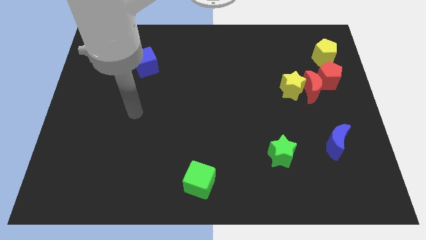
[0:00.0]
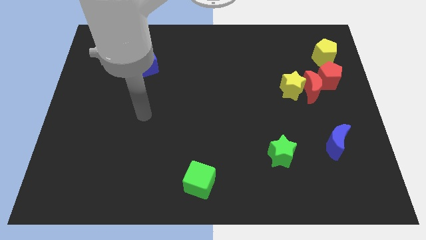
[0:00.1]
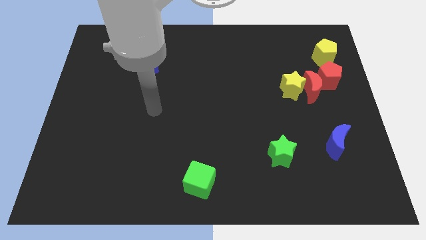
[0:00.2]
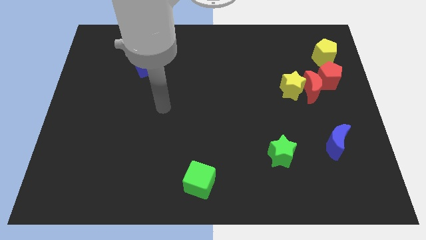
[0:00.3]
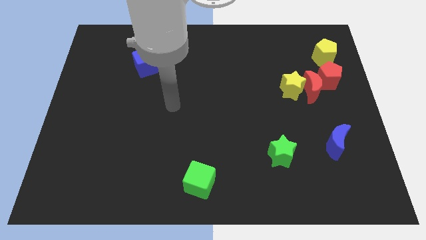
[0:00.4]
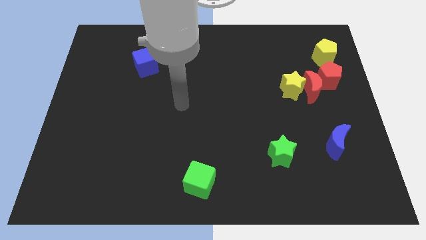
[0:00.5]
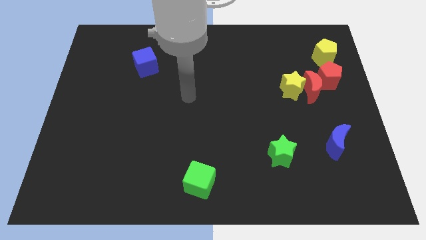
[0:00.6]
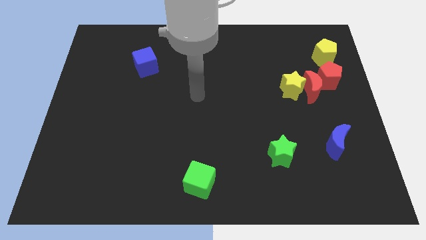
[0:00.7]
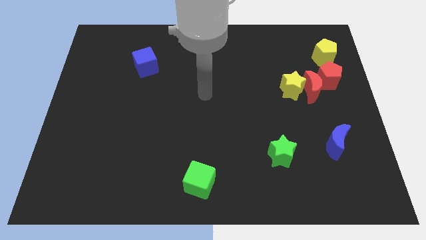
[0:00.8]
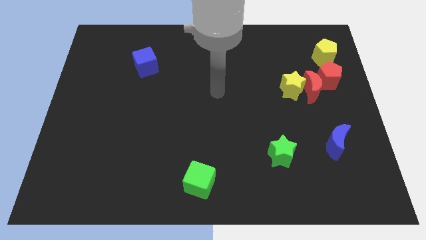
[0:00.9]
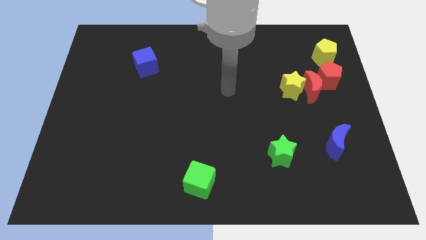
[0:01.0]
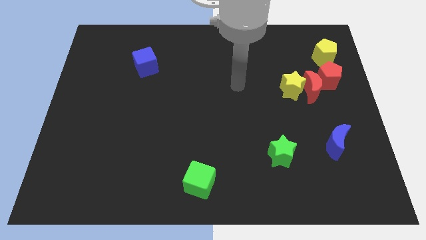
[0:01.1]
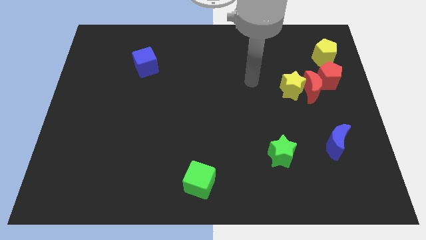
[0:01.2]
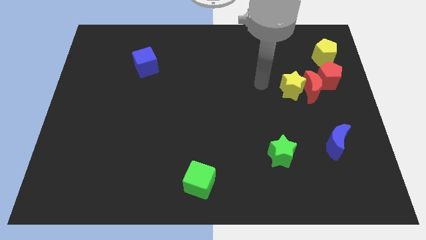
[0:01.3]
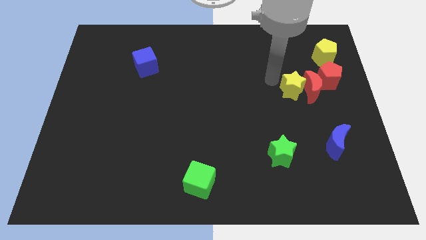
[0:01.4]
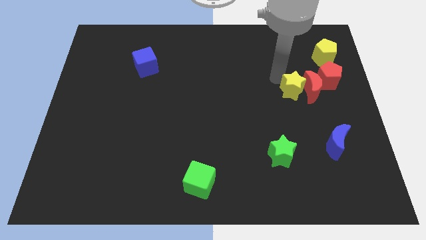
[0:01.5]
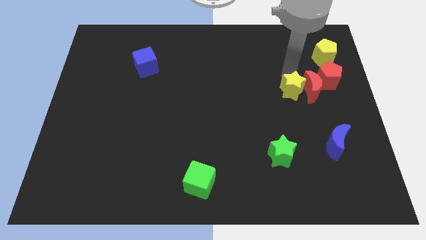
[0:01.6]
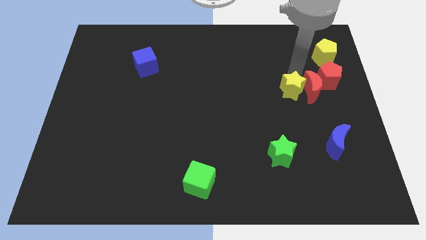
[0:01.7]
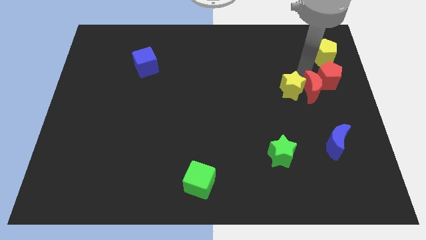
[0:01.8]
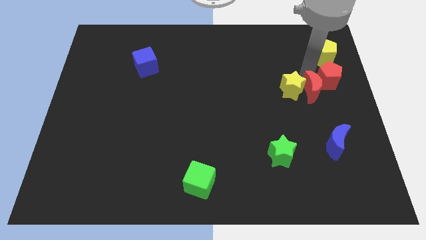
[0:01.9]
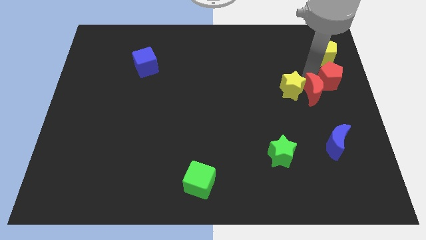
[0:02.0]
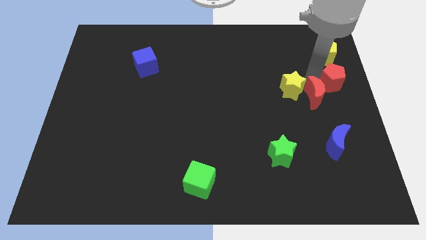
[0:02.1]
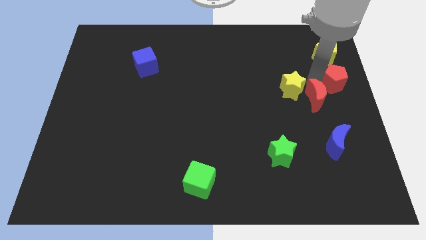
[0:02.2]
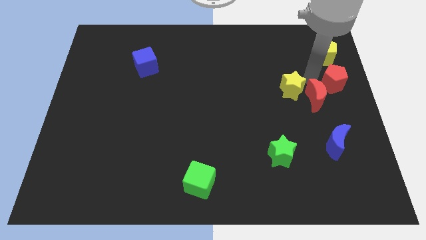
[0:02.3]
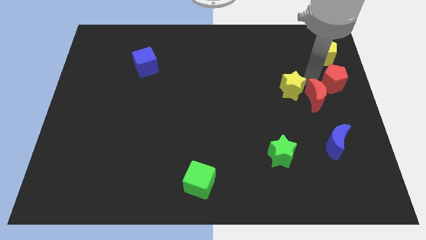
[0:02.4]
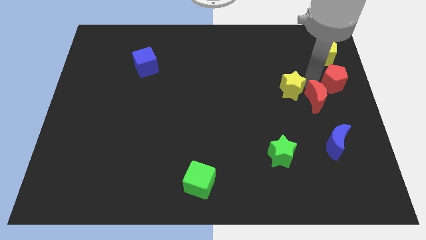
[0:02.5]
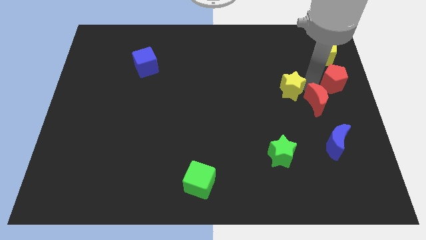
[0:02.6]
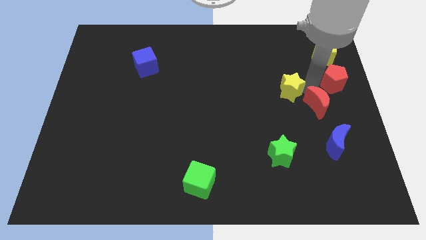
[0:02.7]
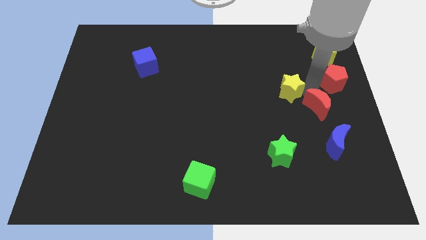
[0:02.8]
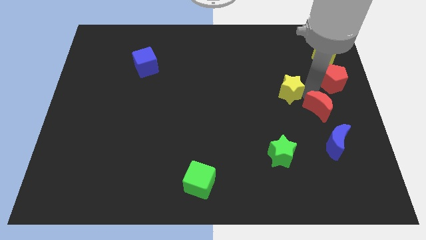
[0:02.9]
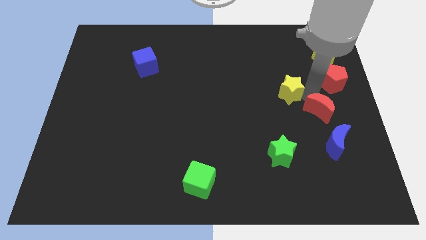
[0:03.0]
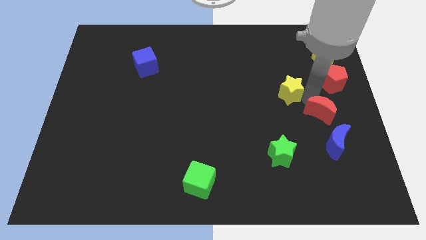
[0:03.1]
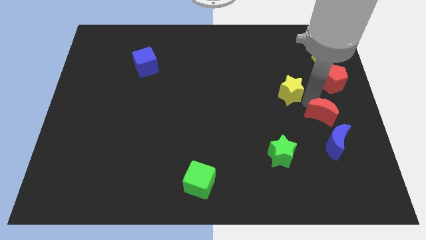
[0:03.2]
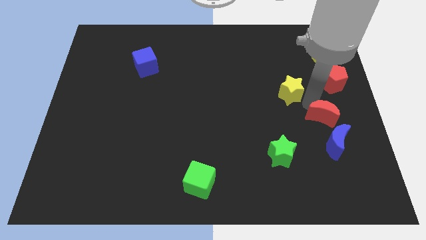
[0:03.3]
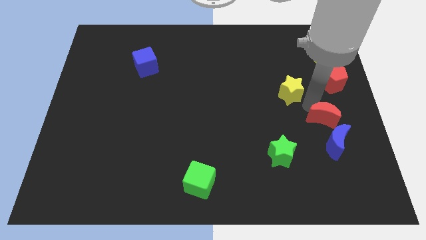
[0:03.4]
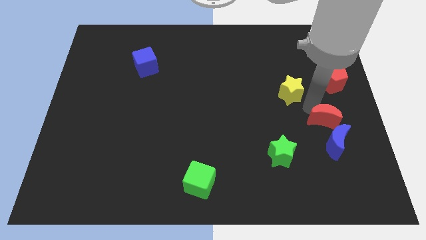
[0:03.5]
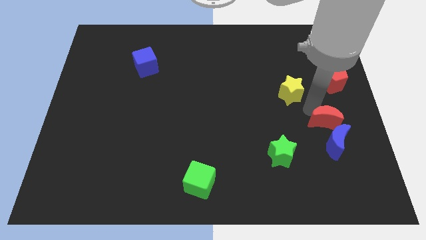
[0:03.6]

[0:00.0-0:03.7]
separate the red moon from the yellow star and red pentagon

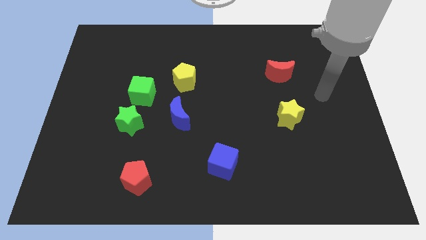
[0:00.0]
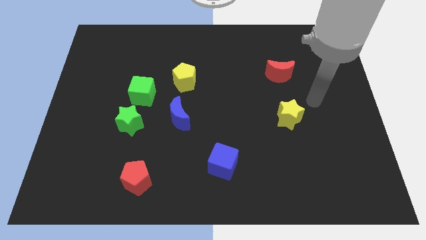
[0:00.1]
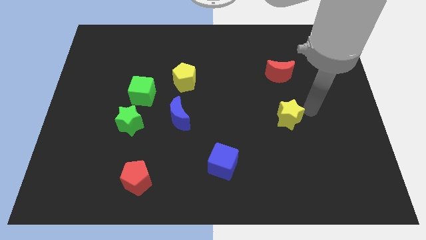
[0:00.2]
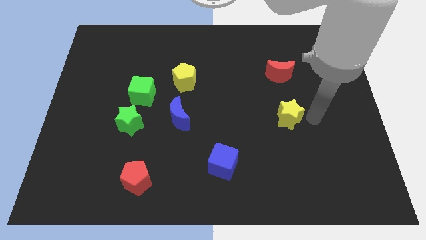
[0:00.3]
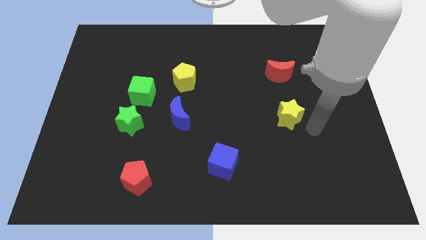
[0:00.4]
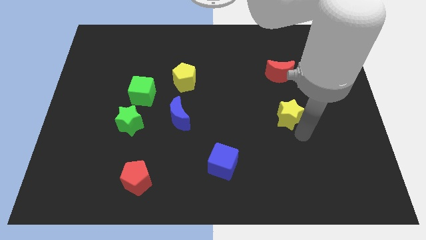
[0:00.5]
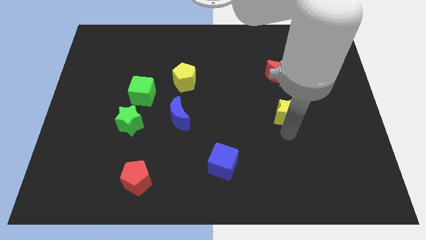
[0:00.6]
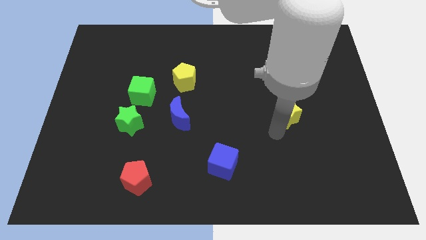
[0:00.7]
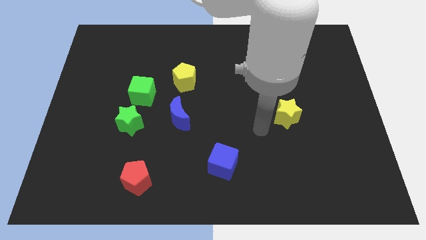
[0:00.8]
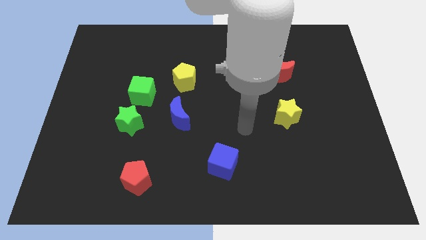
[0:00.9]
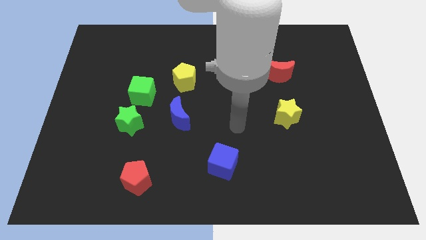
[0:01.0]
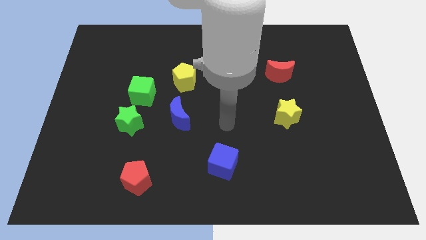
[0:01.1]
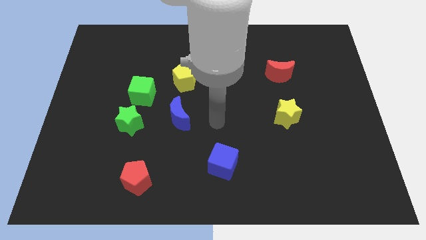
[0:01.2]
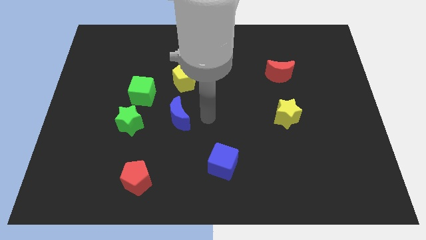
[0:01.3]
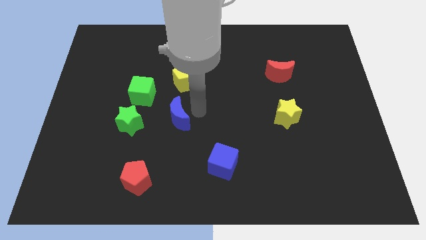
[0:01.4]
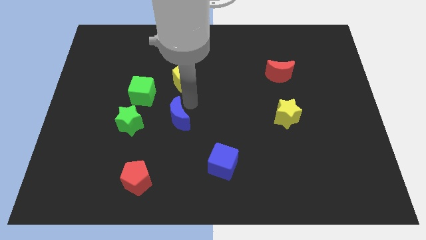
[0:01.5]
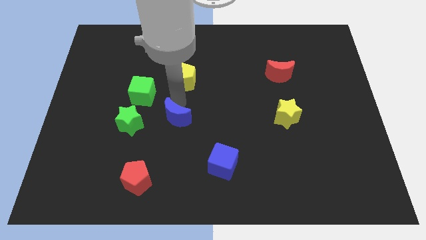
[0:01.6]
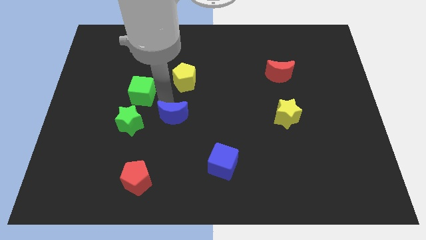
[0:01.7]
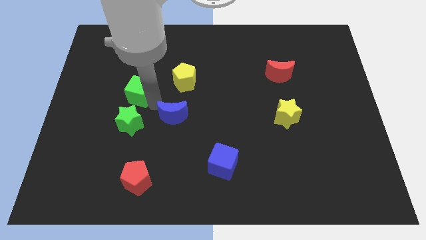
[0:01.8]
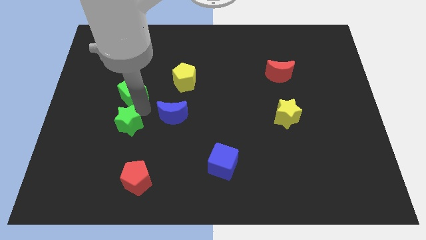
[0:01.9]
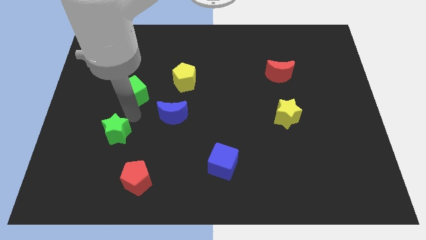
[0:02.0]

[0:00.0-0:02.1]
move the green cube away from the green star

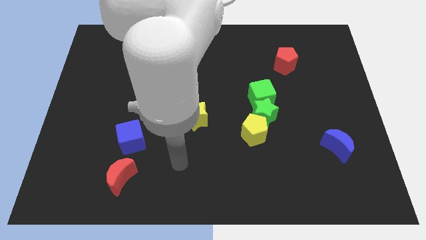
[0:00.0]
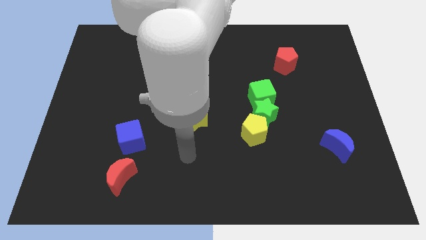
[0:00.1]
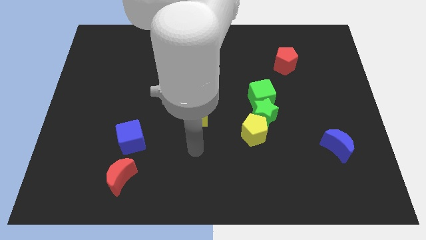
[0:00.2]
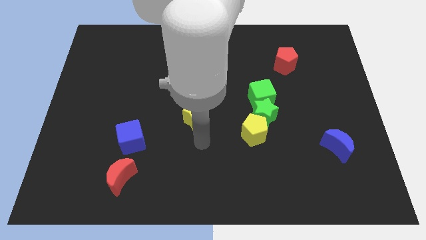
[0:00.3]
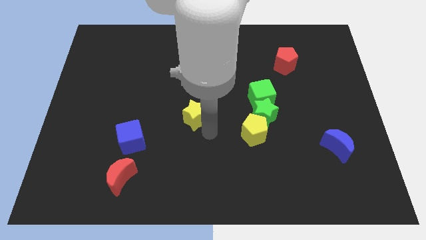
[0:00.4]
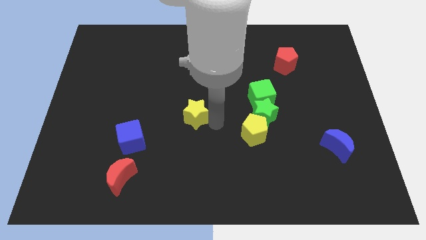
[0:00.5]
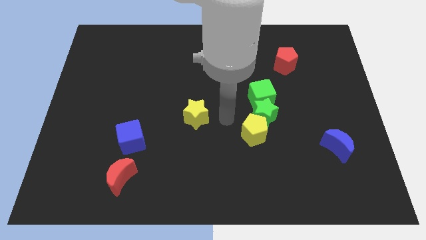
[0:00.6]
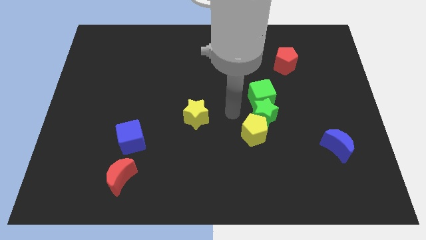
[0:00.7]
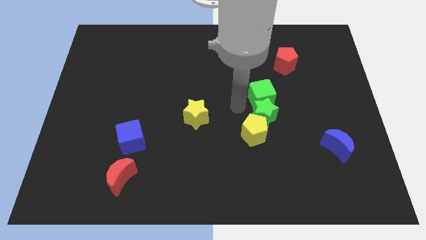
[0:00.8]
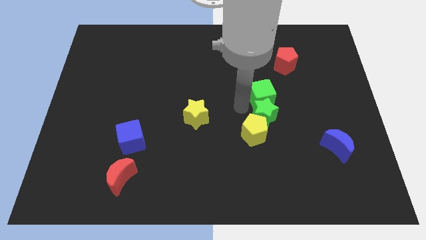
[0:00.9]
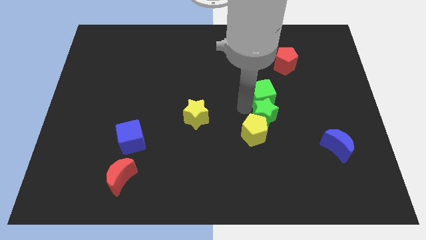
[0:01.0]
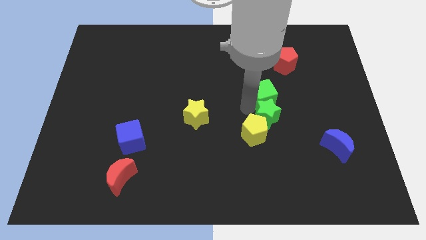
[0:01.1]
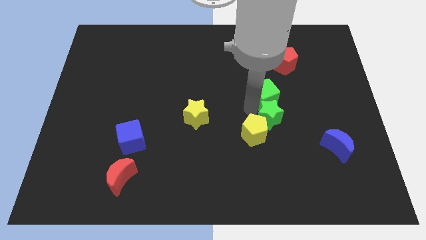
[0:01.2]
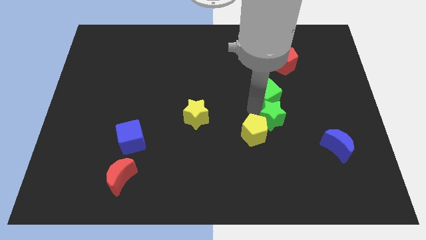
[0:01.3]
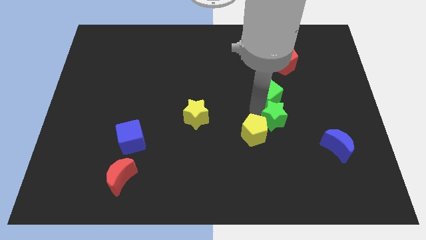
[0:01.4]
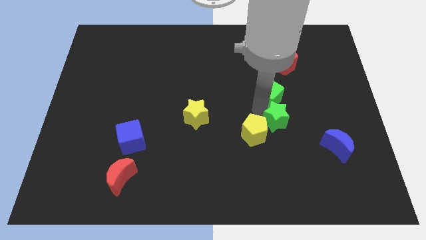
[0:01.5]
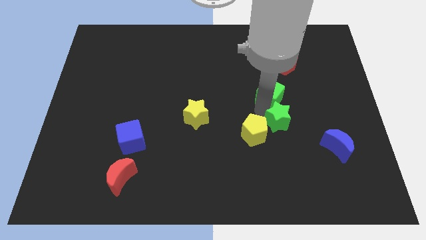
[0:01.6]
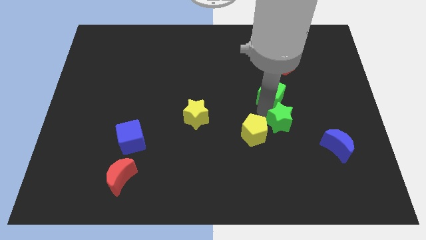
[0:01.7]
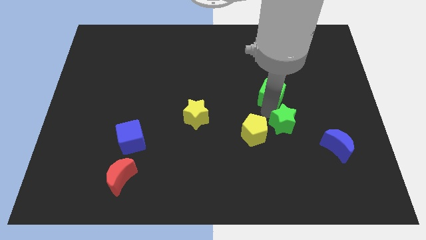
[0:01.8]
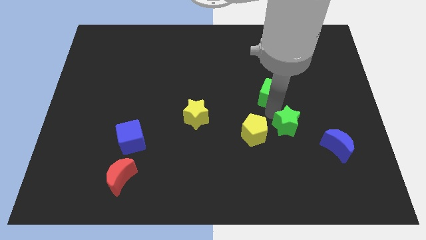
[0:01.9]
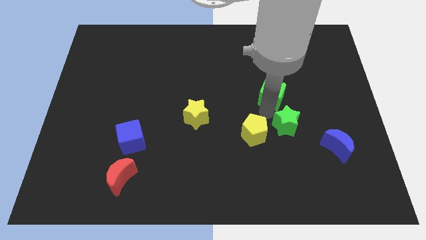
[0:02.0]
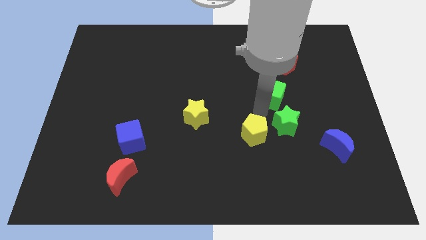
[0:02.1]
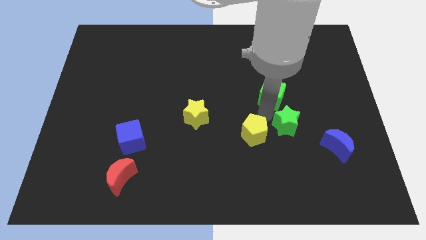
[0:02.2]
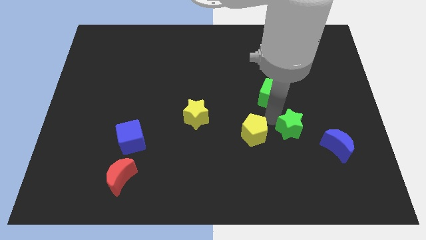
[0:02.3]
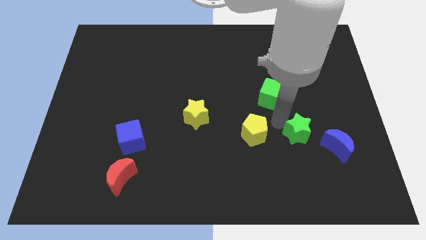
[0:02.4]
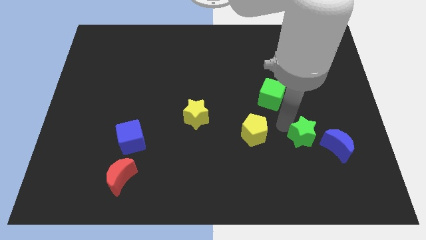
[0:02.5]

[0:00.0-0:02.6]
move the green star away from the yellow pentagon and green cube

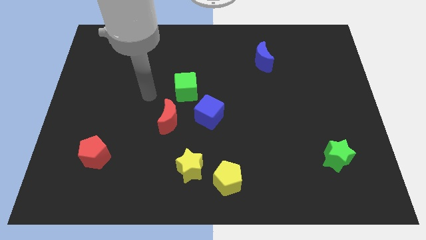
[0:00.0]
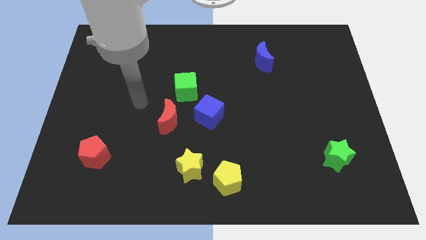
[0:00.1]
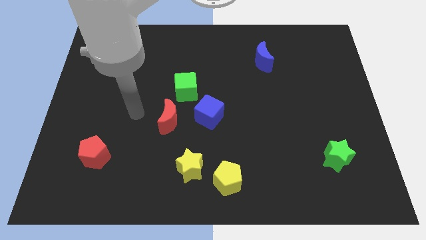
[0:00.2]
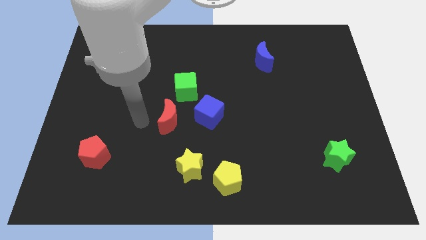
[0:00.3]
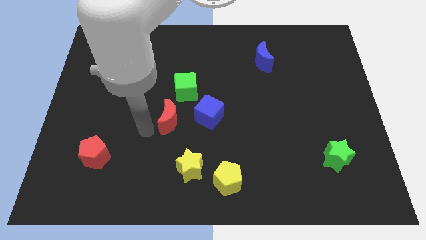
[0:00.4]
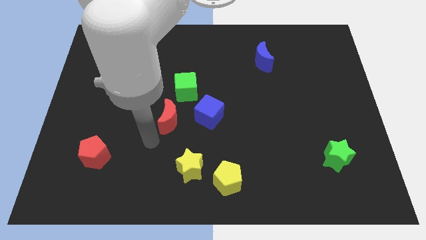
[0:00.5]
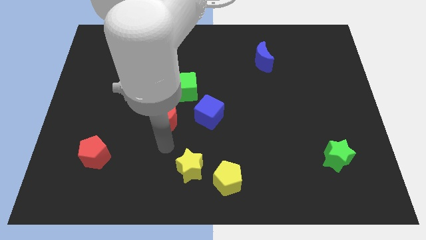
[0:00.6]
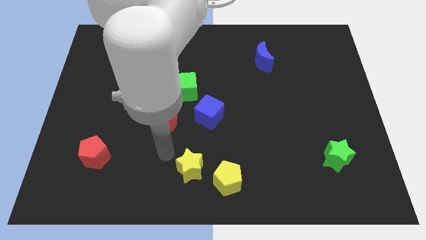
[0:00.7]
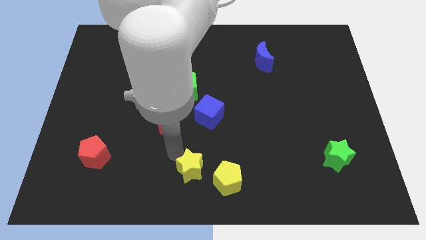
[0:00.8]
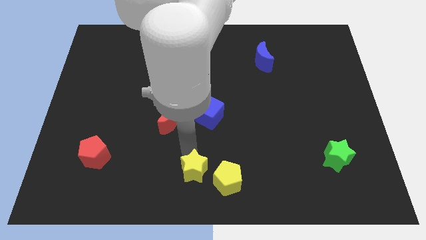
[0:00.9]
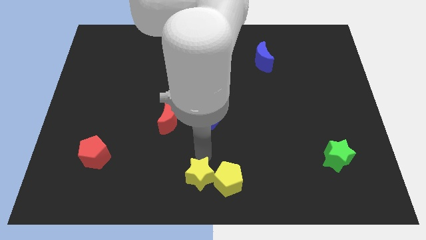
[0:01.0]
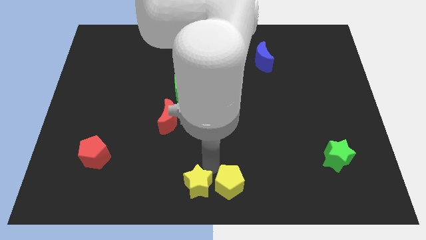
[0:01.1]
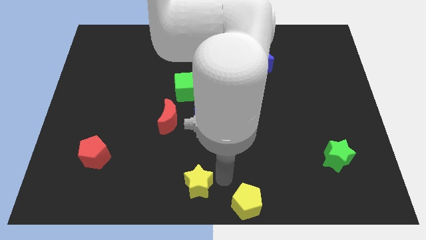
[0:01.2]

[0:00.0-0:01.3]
separate the yellow star from the yellow pentagon
